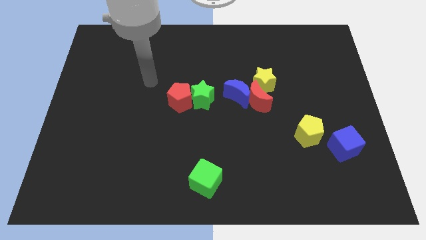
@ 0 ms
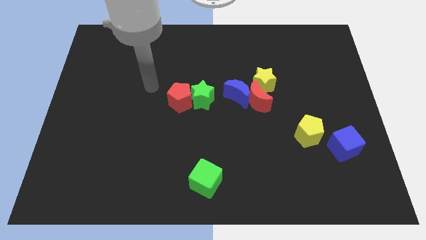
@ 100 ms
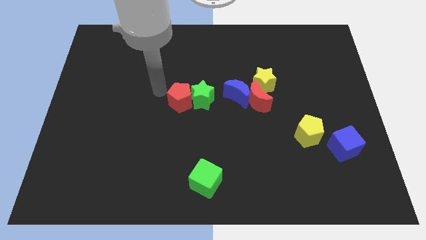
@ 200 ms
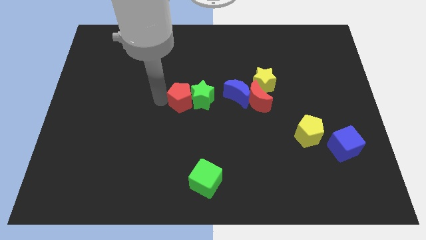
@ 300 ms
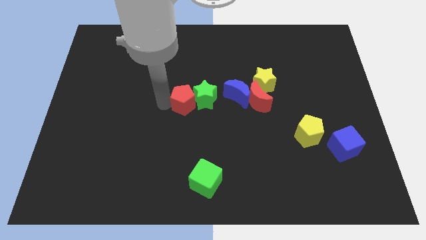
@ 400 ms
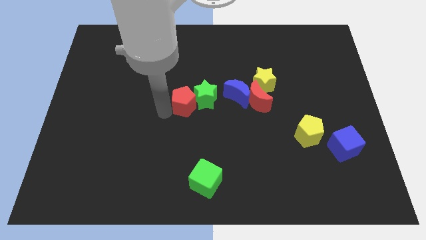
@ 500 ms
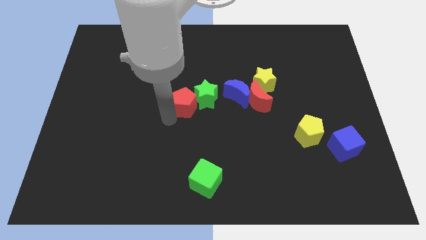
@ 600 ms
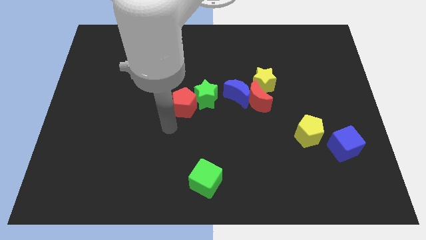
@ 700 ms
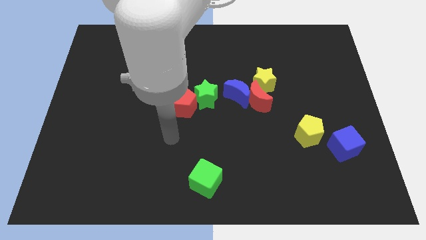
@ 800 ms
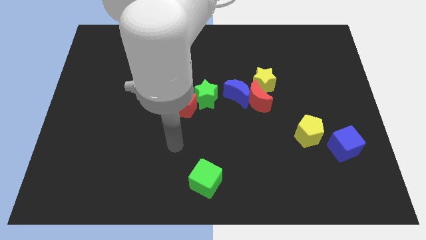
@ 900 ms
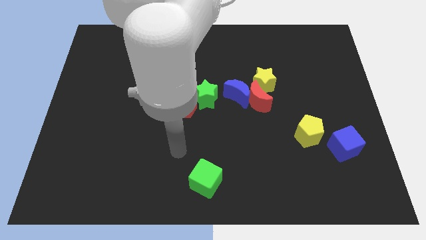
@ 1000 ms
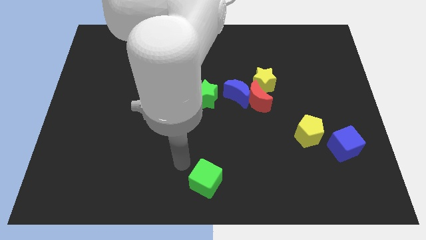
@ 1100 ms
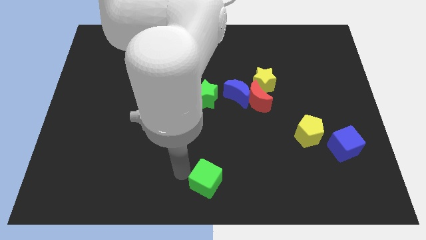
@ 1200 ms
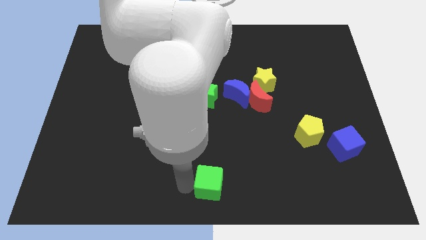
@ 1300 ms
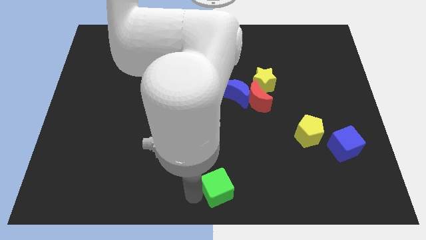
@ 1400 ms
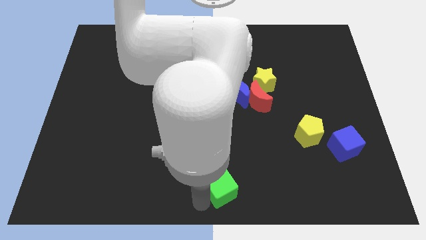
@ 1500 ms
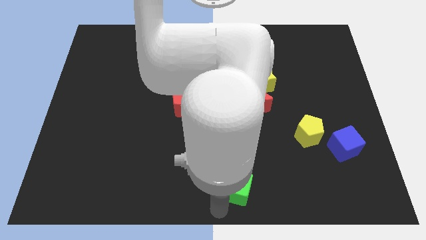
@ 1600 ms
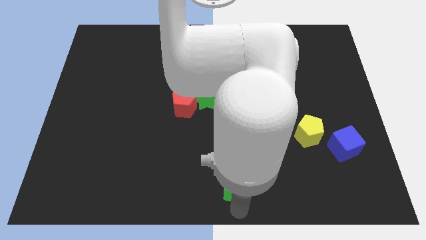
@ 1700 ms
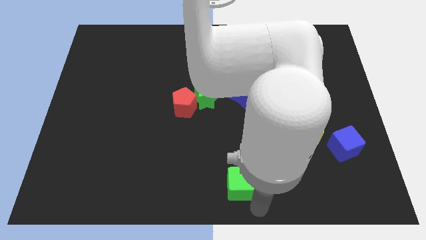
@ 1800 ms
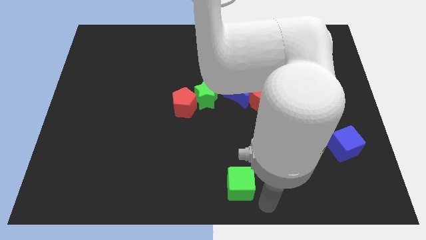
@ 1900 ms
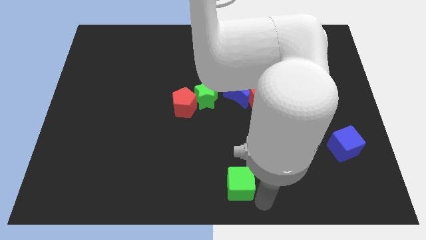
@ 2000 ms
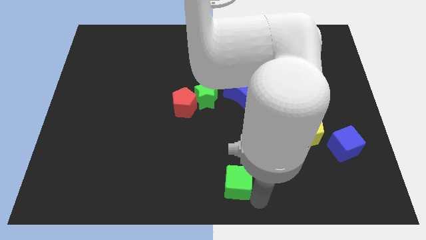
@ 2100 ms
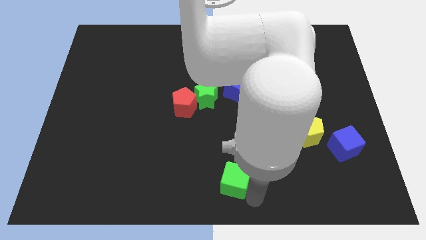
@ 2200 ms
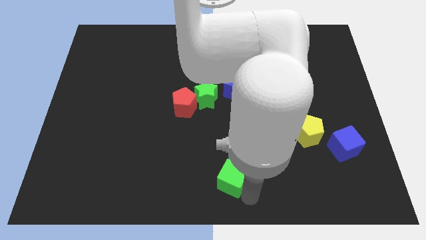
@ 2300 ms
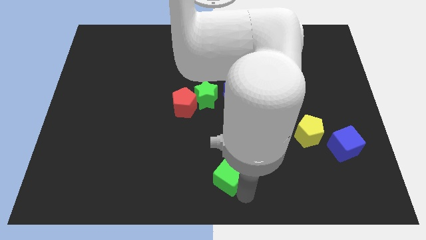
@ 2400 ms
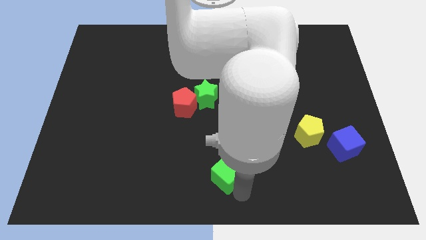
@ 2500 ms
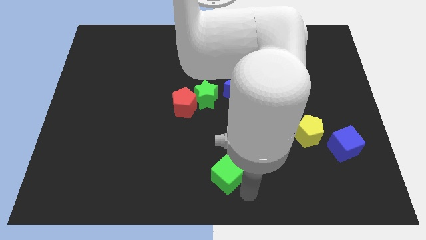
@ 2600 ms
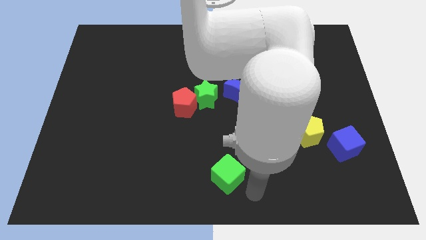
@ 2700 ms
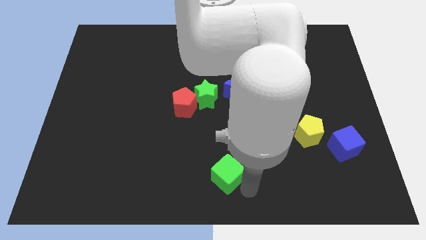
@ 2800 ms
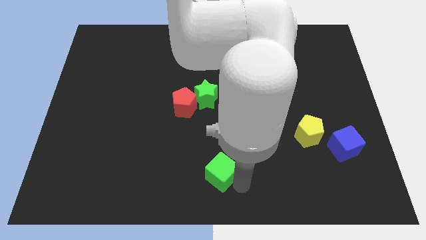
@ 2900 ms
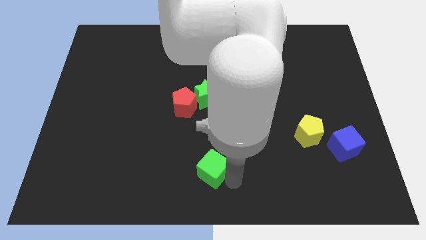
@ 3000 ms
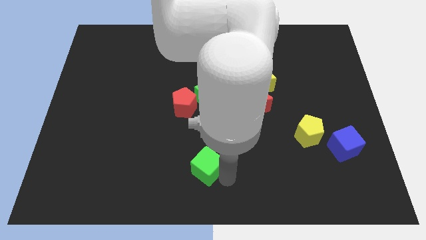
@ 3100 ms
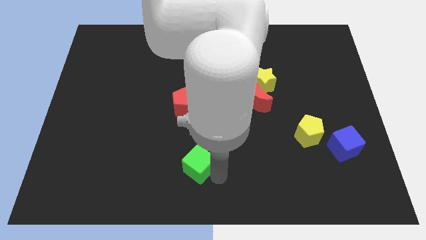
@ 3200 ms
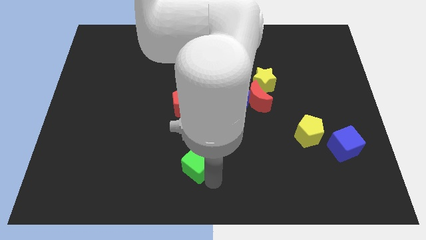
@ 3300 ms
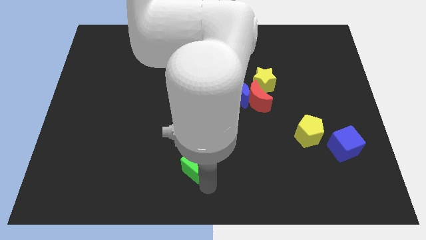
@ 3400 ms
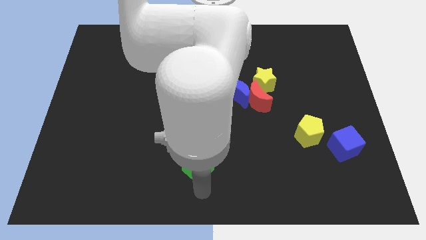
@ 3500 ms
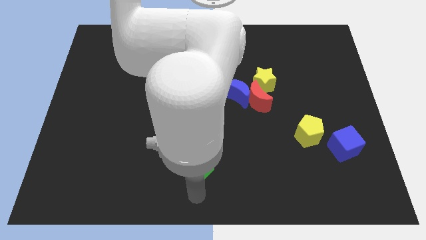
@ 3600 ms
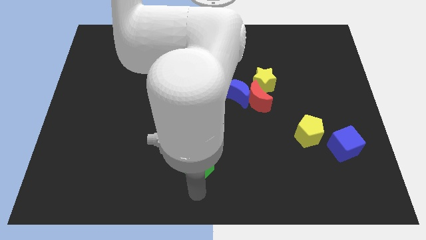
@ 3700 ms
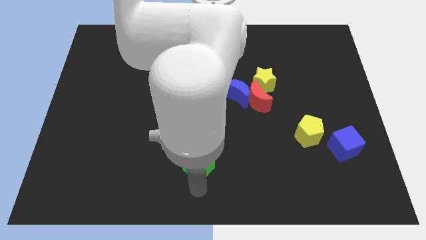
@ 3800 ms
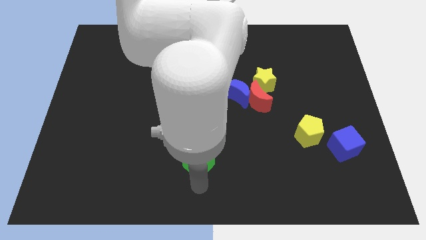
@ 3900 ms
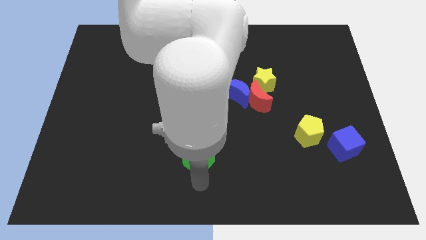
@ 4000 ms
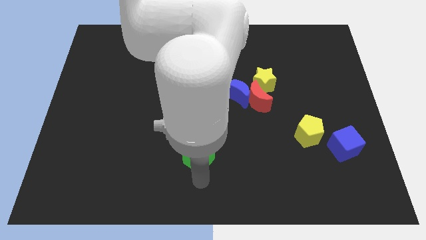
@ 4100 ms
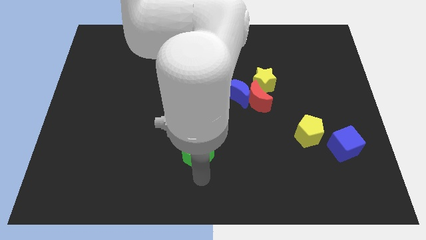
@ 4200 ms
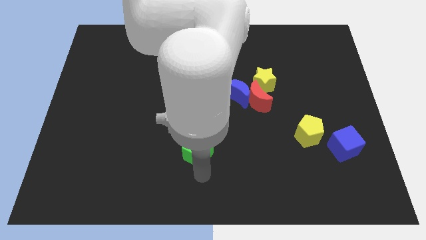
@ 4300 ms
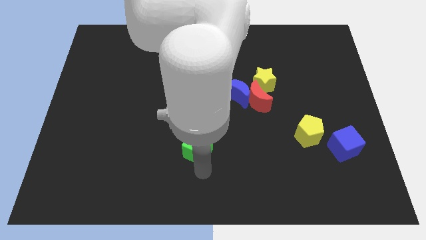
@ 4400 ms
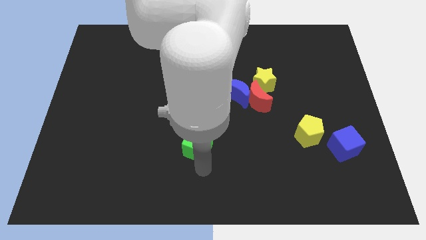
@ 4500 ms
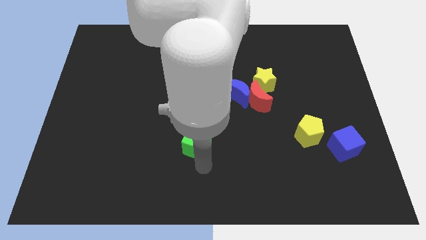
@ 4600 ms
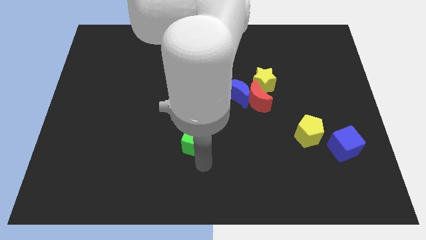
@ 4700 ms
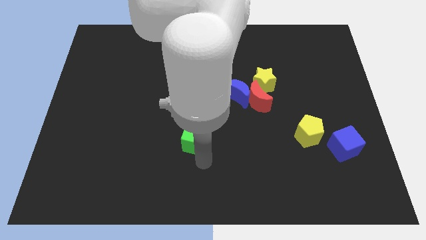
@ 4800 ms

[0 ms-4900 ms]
move the green cube to the bottom right of the red pentagon

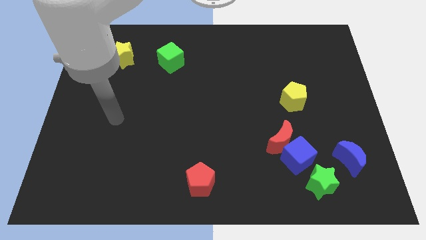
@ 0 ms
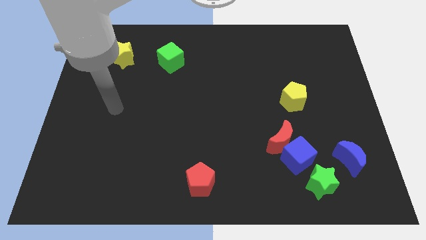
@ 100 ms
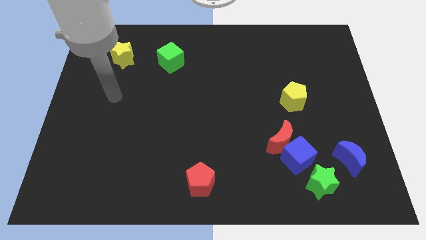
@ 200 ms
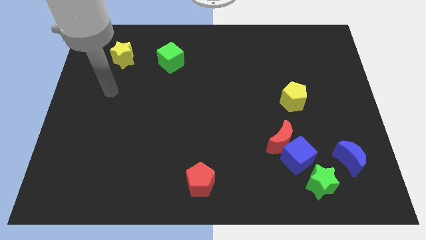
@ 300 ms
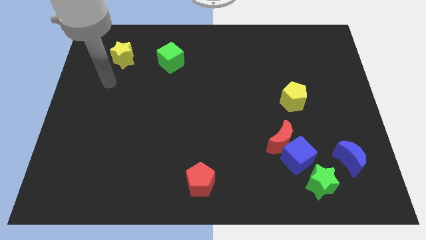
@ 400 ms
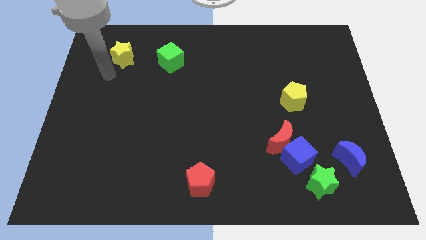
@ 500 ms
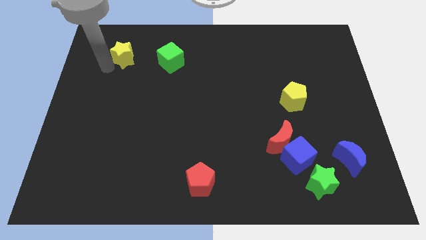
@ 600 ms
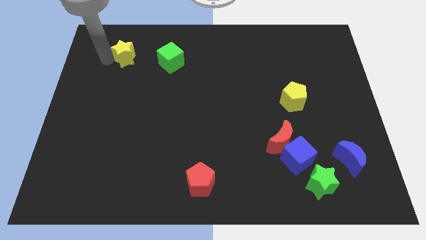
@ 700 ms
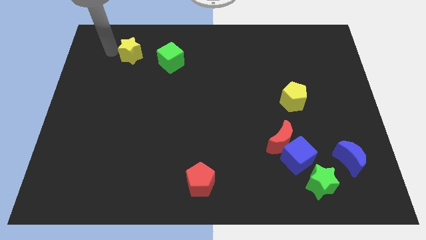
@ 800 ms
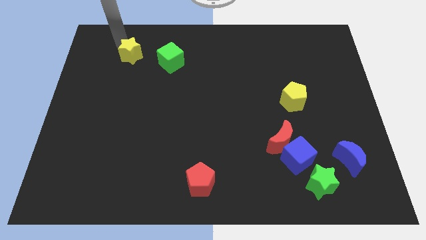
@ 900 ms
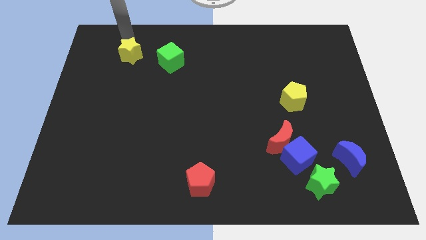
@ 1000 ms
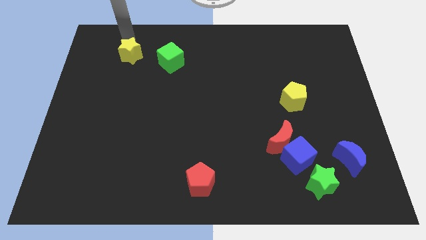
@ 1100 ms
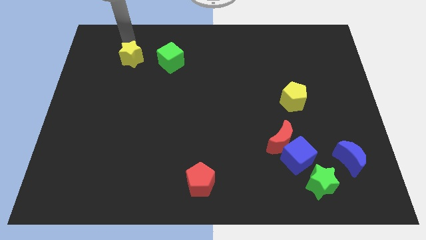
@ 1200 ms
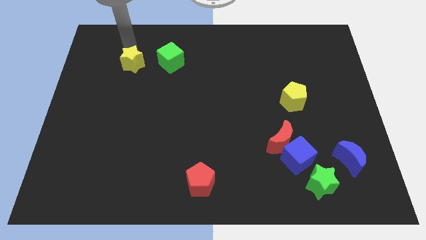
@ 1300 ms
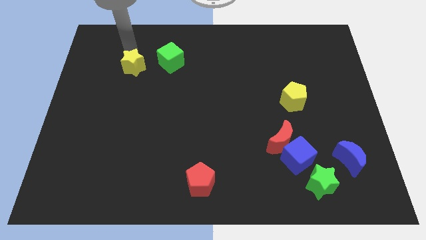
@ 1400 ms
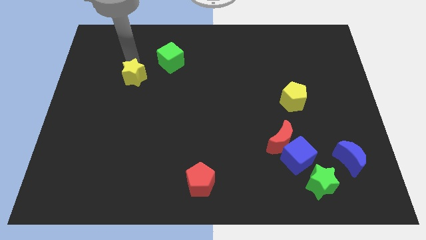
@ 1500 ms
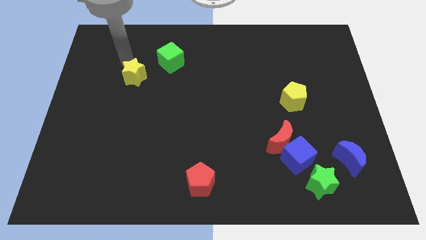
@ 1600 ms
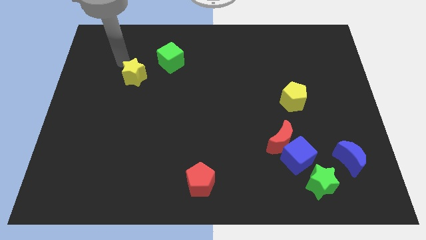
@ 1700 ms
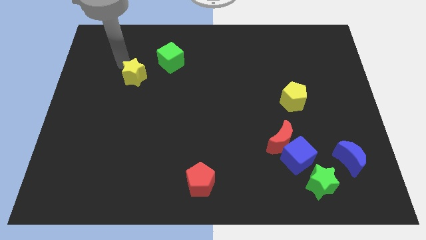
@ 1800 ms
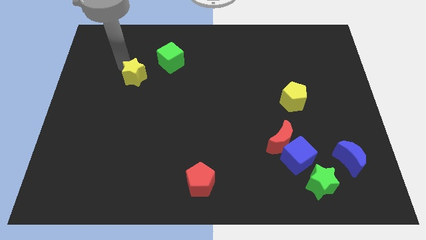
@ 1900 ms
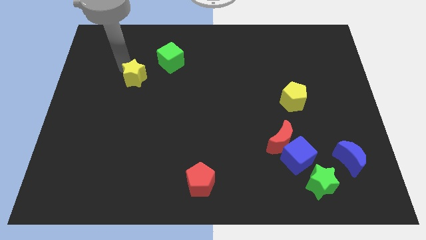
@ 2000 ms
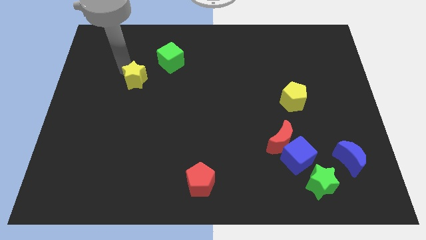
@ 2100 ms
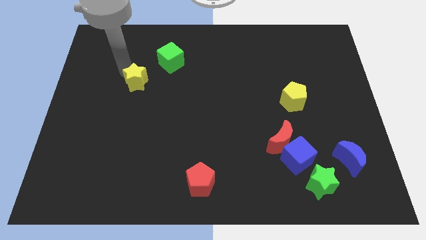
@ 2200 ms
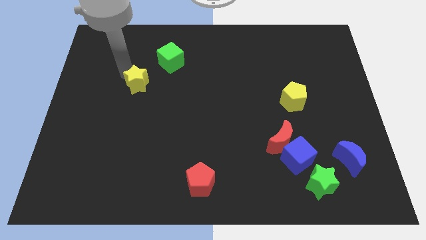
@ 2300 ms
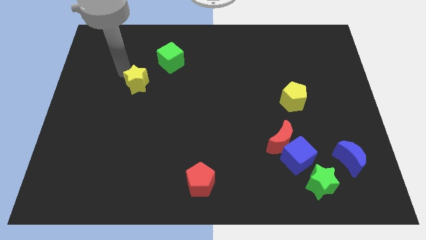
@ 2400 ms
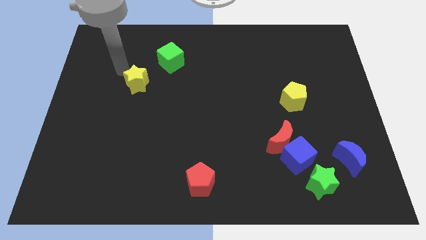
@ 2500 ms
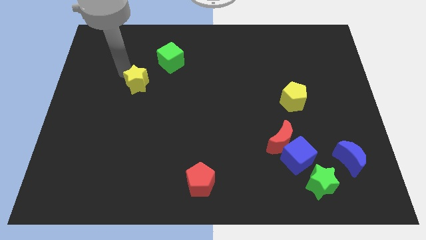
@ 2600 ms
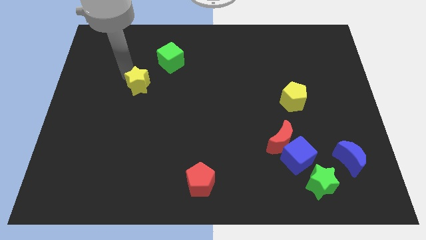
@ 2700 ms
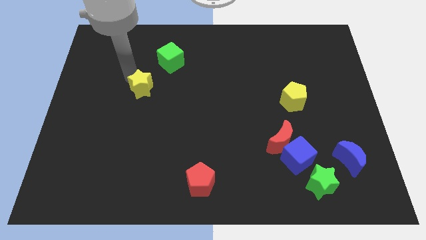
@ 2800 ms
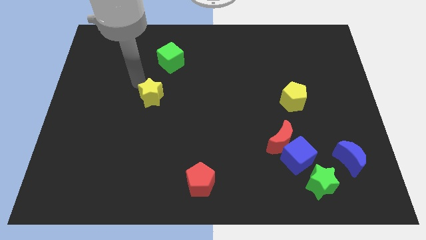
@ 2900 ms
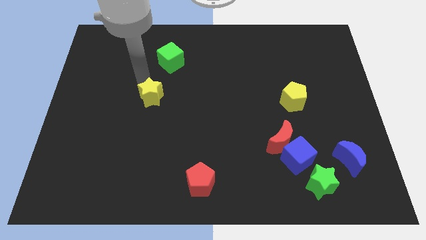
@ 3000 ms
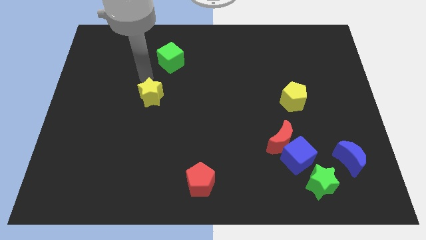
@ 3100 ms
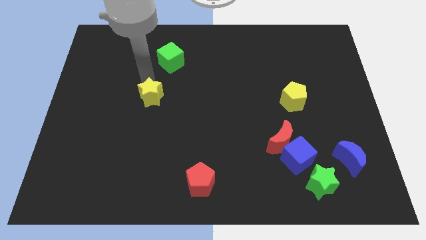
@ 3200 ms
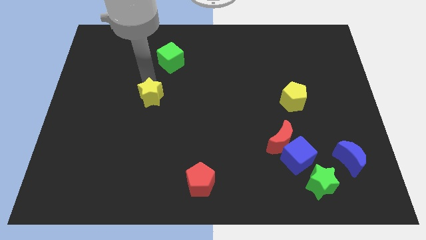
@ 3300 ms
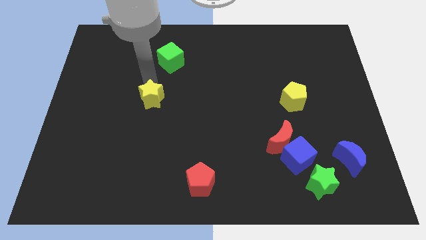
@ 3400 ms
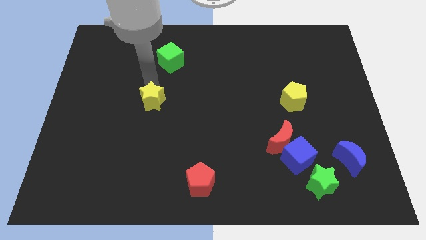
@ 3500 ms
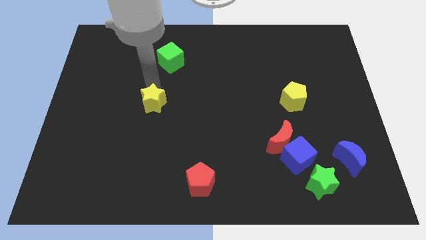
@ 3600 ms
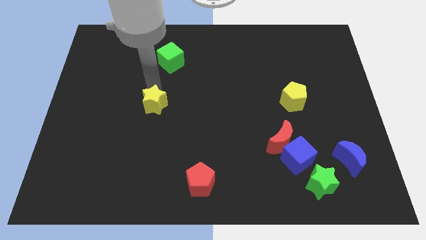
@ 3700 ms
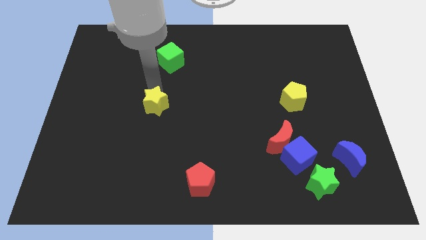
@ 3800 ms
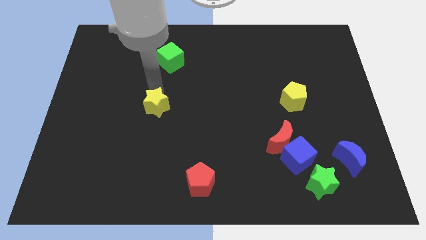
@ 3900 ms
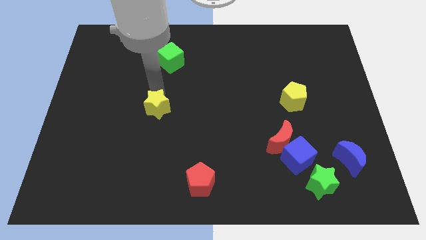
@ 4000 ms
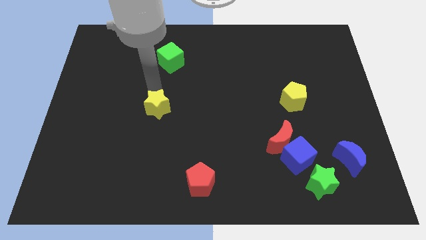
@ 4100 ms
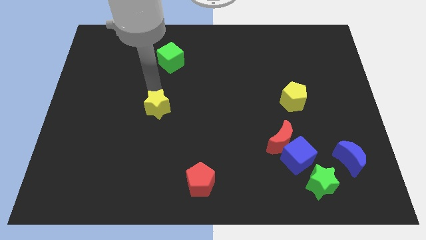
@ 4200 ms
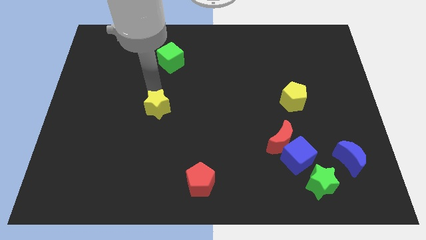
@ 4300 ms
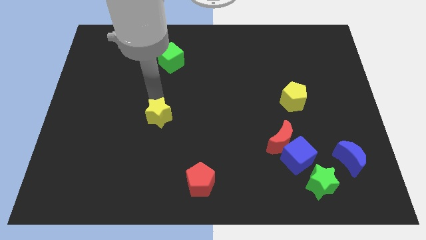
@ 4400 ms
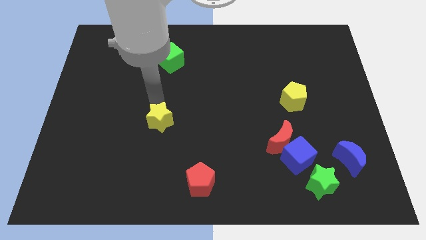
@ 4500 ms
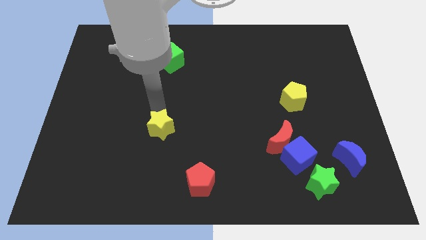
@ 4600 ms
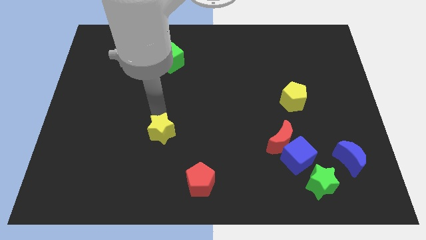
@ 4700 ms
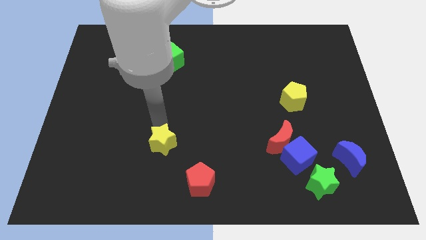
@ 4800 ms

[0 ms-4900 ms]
slide the yellow star diagonally up and to the left of the red pentagon
